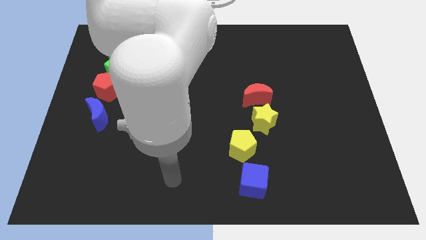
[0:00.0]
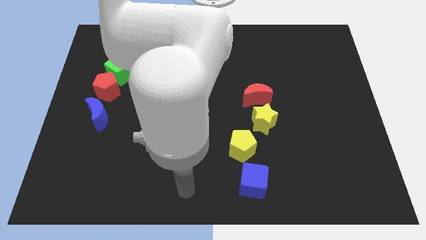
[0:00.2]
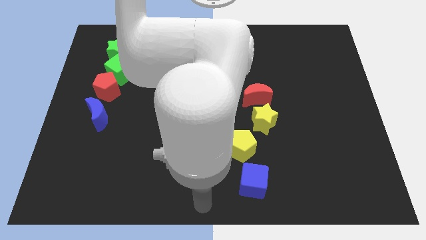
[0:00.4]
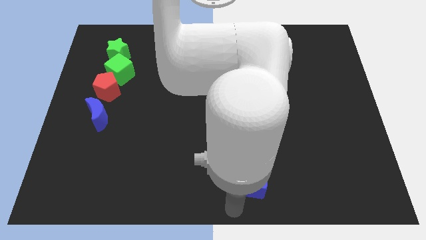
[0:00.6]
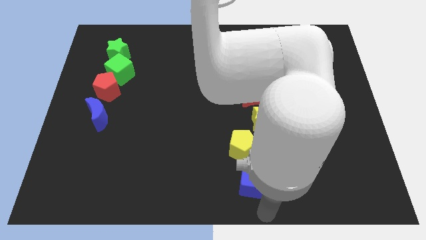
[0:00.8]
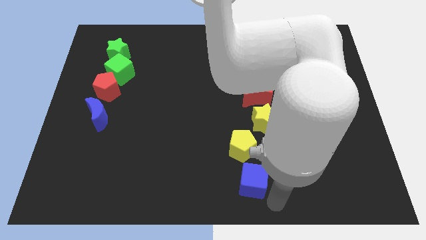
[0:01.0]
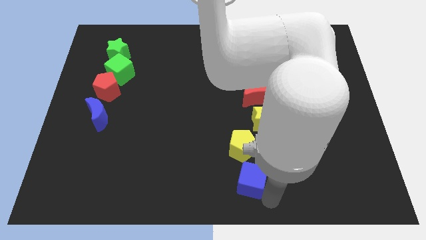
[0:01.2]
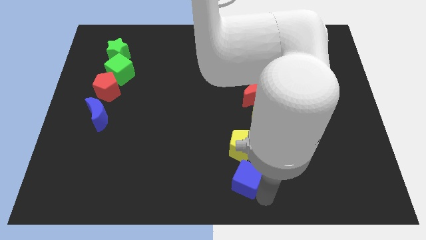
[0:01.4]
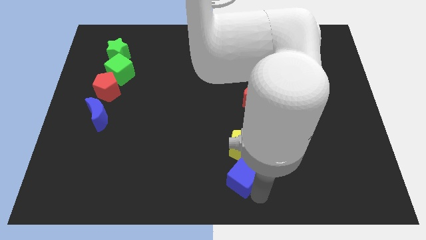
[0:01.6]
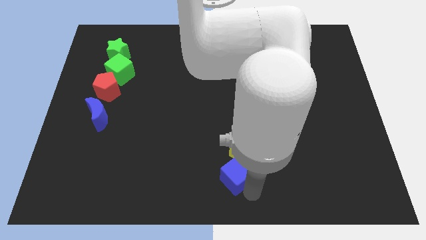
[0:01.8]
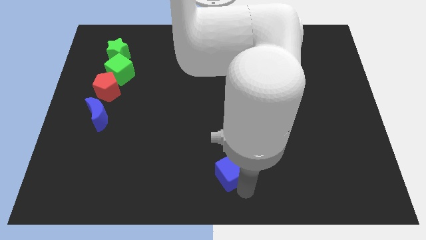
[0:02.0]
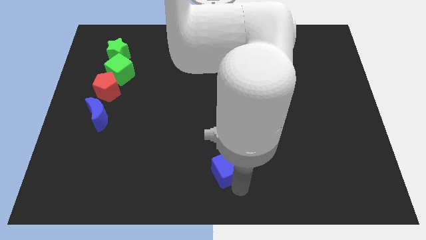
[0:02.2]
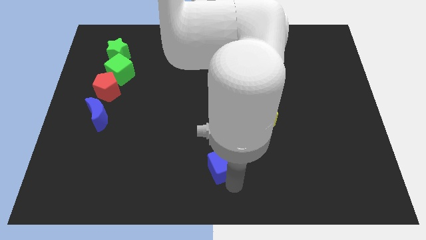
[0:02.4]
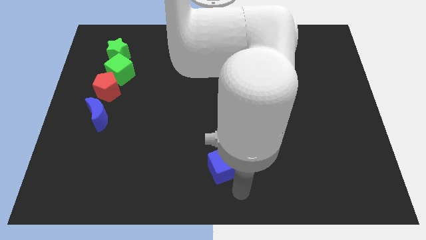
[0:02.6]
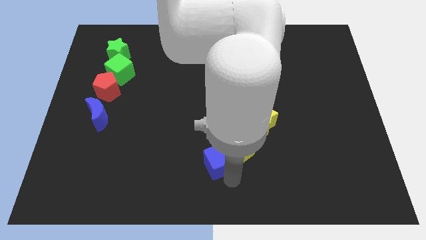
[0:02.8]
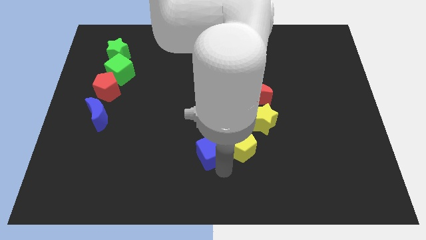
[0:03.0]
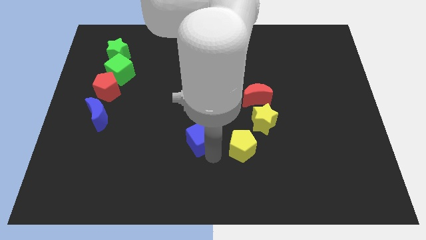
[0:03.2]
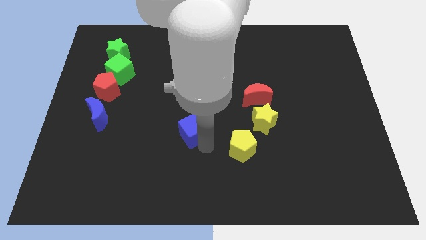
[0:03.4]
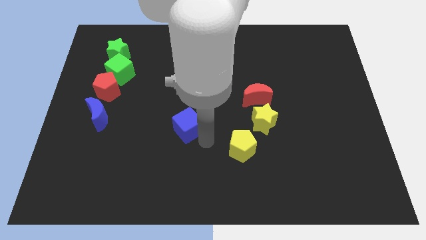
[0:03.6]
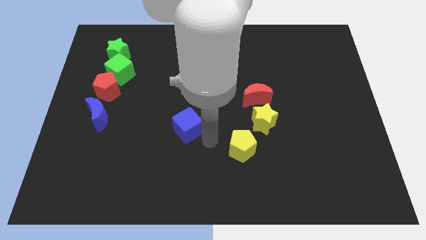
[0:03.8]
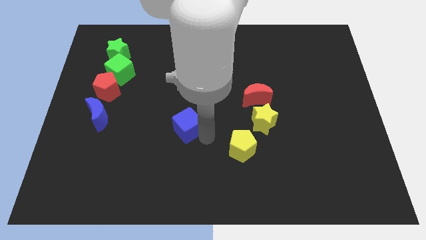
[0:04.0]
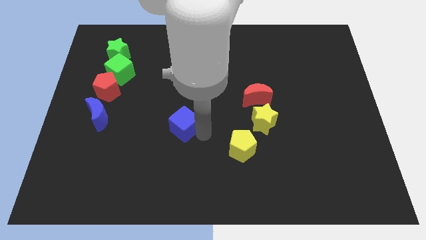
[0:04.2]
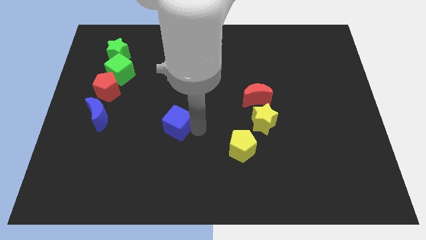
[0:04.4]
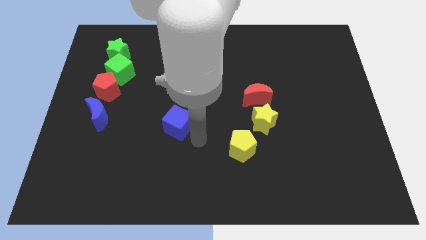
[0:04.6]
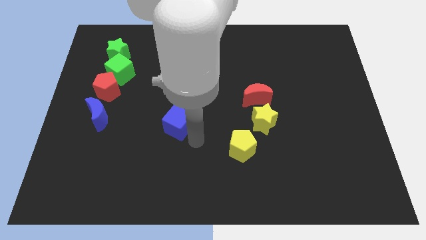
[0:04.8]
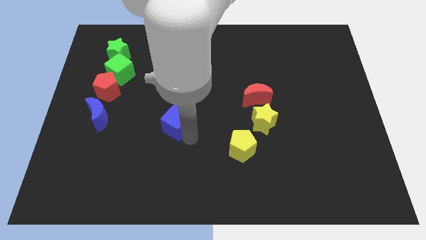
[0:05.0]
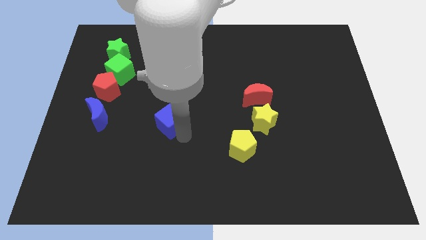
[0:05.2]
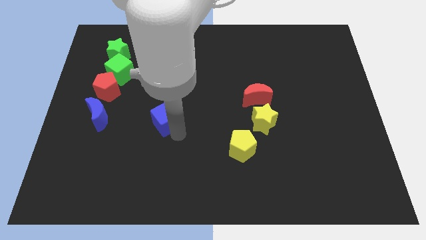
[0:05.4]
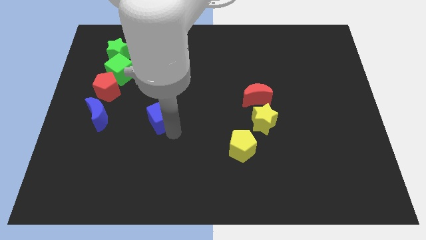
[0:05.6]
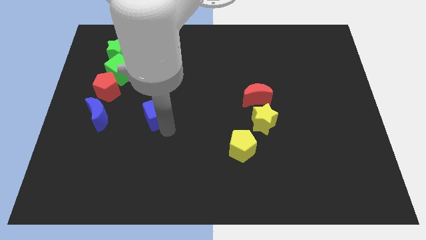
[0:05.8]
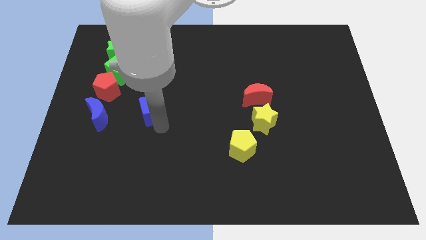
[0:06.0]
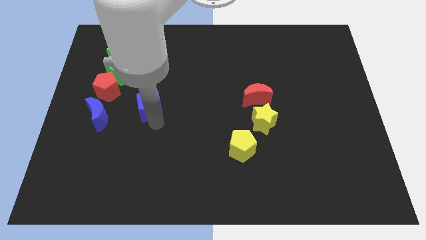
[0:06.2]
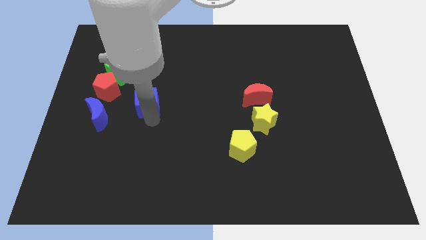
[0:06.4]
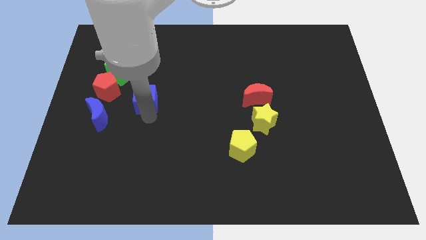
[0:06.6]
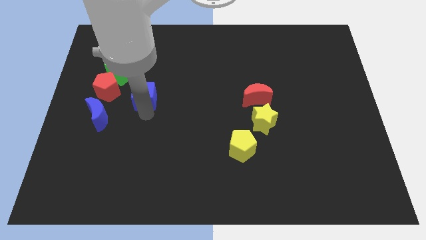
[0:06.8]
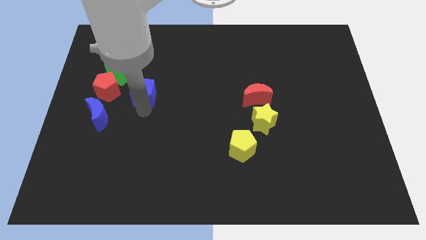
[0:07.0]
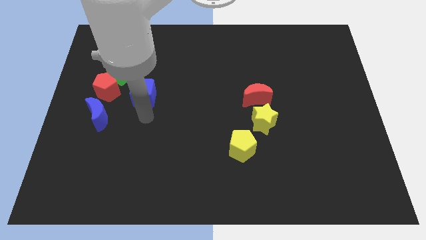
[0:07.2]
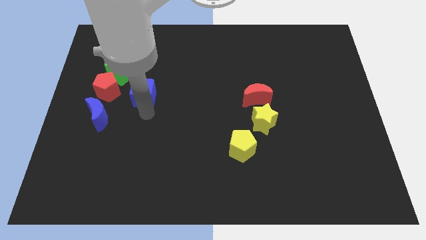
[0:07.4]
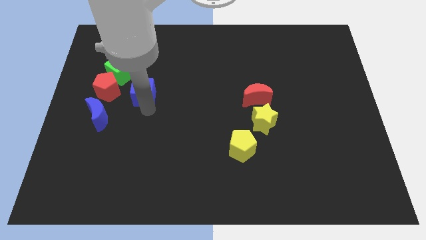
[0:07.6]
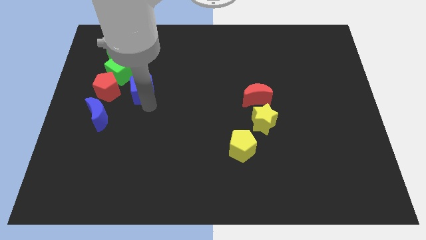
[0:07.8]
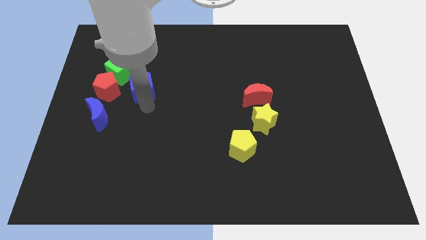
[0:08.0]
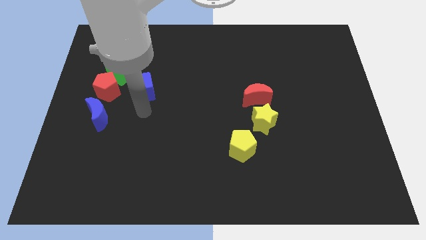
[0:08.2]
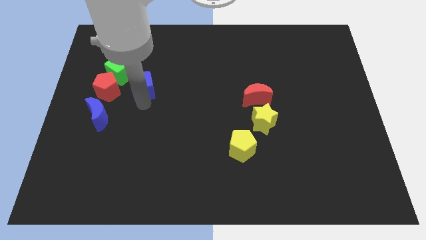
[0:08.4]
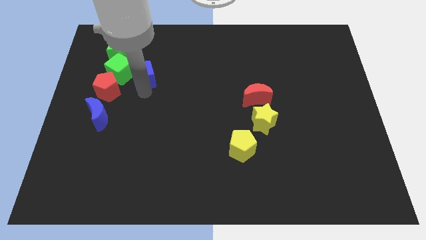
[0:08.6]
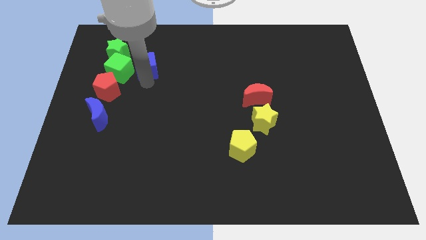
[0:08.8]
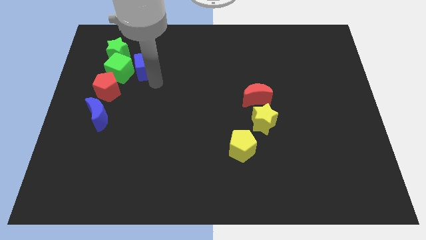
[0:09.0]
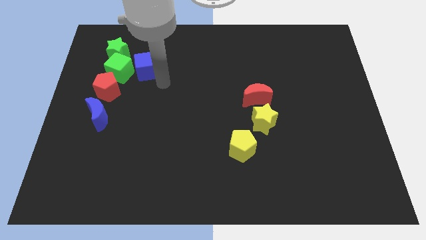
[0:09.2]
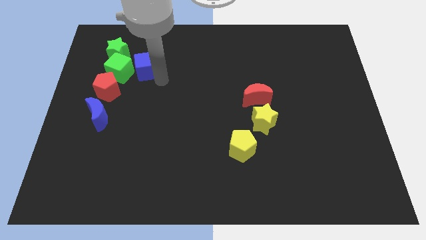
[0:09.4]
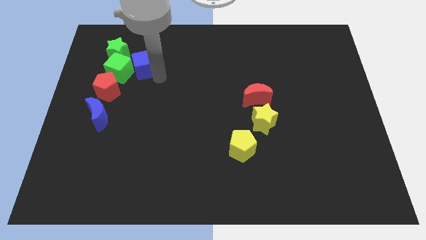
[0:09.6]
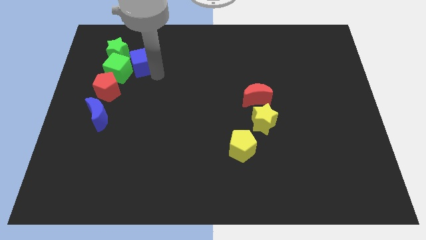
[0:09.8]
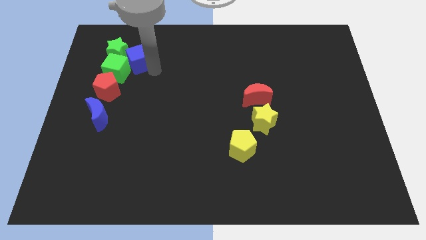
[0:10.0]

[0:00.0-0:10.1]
move the blue cube next to the green star

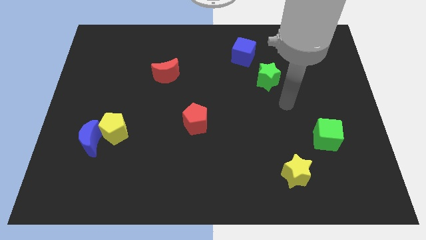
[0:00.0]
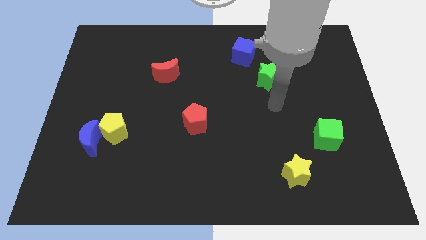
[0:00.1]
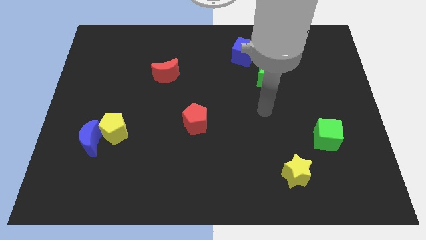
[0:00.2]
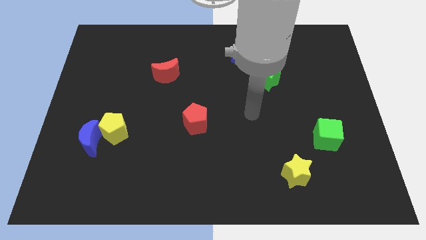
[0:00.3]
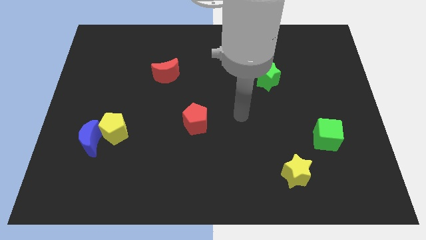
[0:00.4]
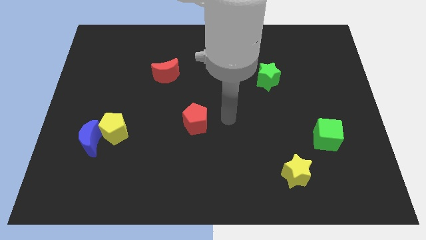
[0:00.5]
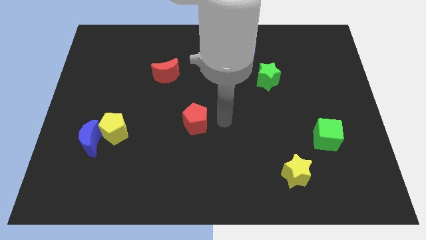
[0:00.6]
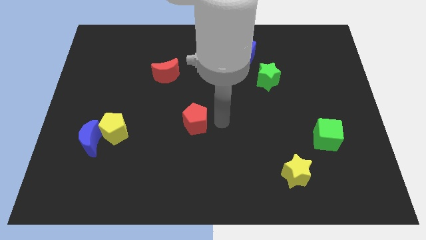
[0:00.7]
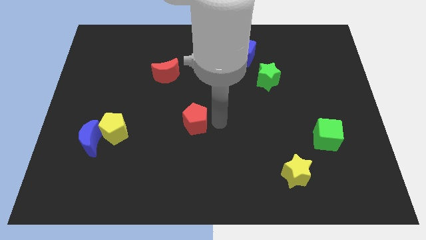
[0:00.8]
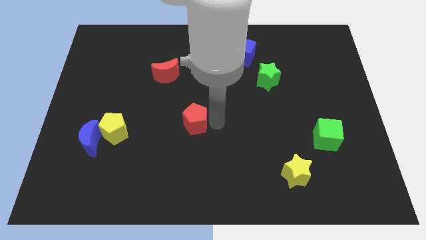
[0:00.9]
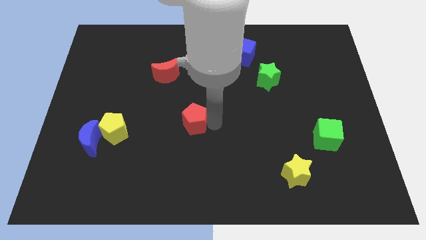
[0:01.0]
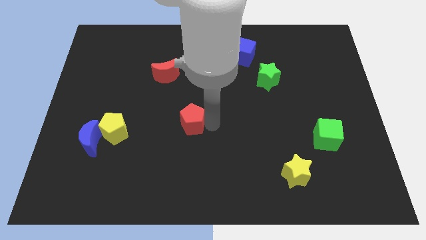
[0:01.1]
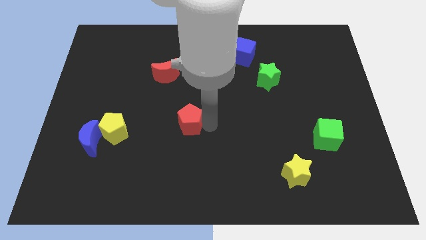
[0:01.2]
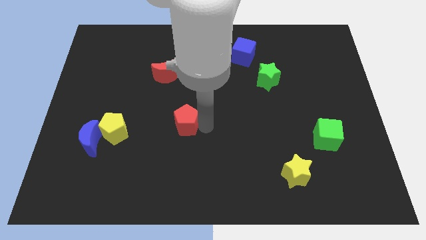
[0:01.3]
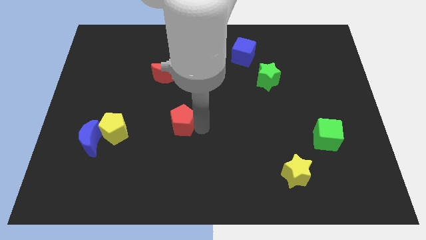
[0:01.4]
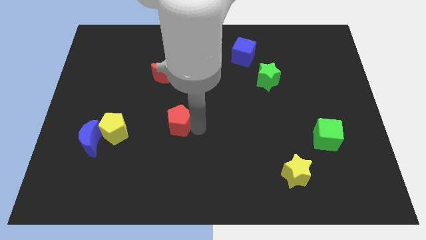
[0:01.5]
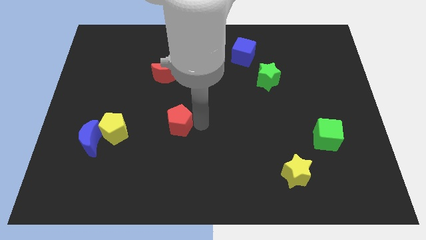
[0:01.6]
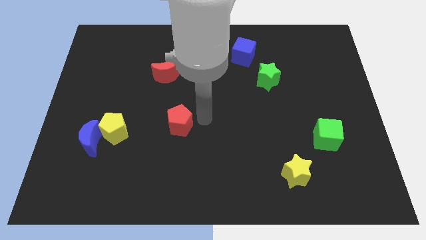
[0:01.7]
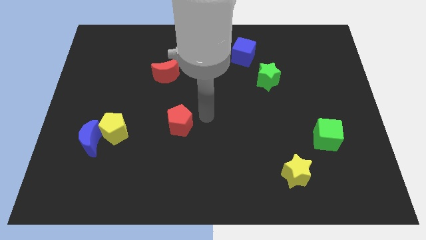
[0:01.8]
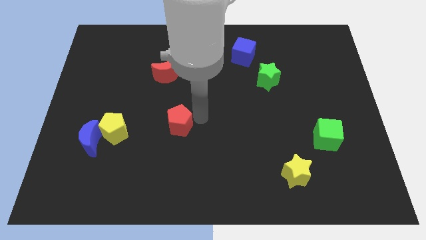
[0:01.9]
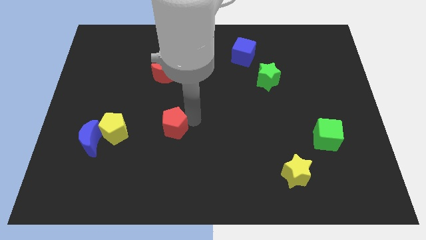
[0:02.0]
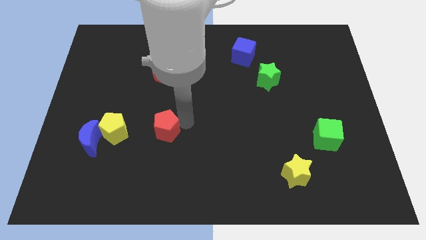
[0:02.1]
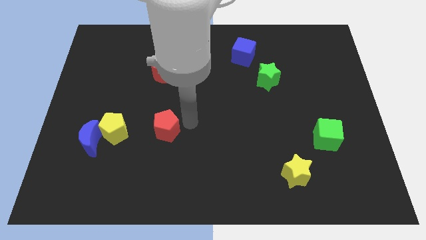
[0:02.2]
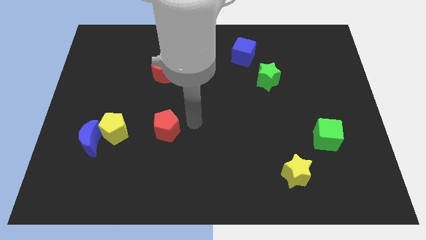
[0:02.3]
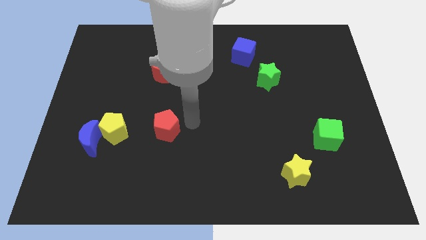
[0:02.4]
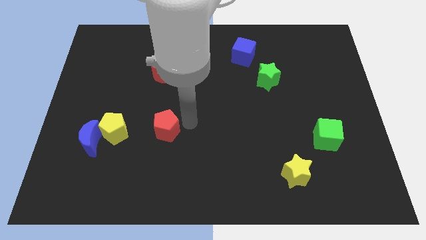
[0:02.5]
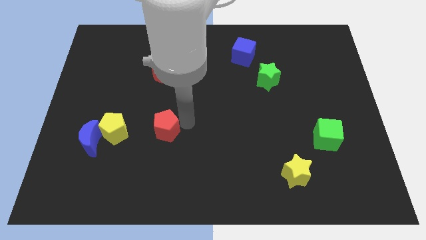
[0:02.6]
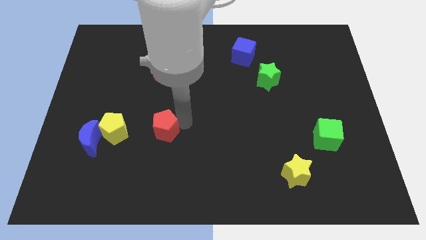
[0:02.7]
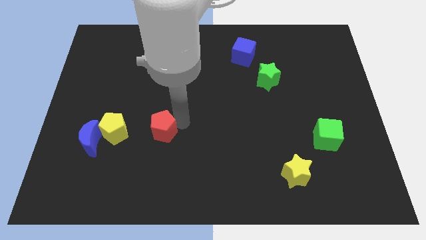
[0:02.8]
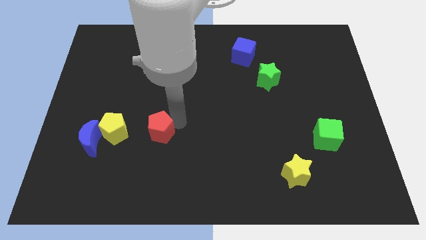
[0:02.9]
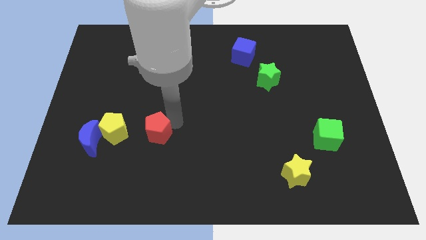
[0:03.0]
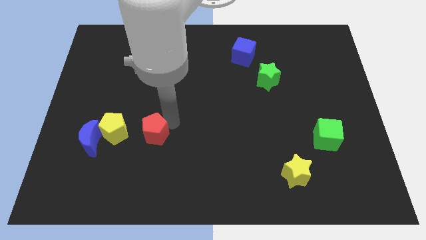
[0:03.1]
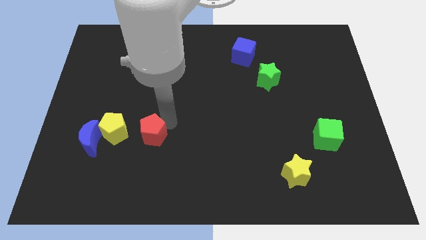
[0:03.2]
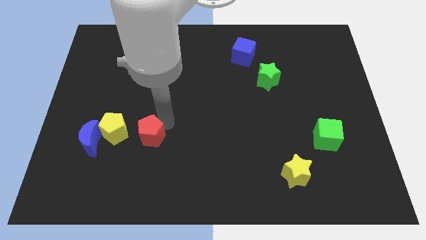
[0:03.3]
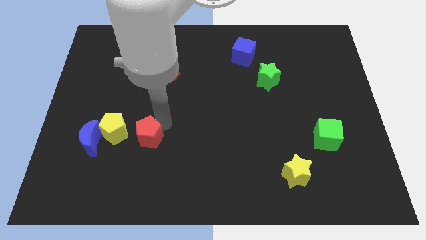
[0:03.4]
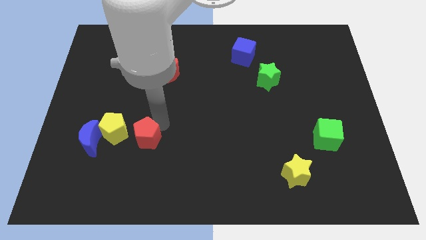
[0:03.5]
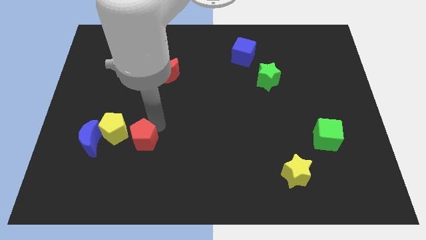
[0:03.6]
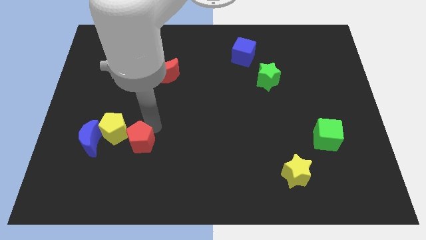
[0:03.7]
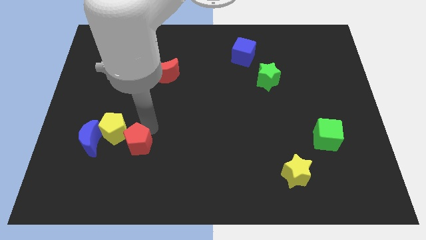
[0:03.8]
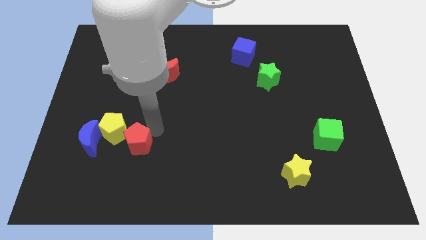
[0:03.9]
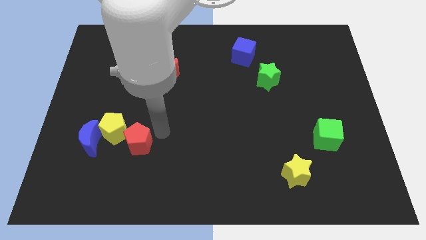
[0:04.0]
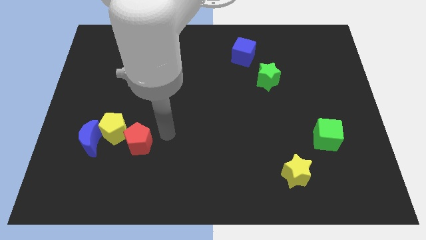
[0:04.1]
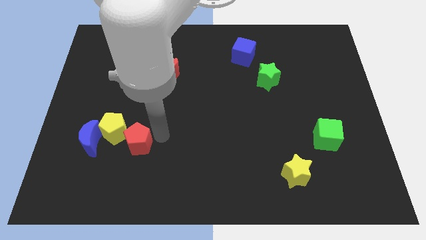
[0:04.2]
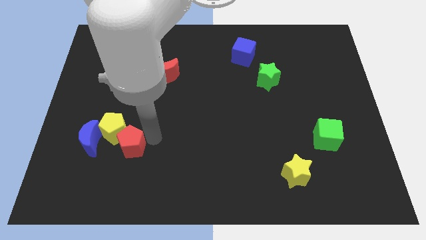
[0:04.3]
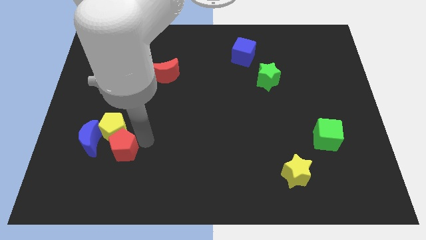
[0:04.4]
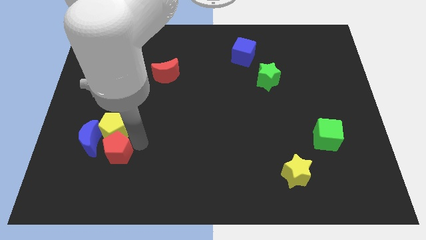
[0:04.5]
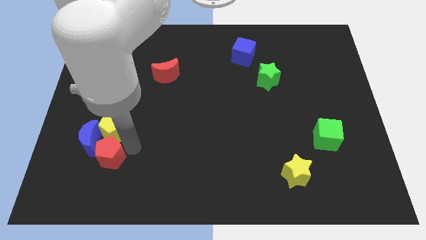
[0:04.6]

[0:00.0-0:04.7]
put the red pentagon close to the blue moon
